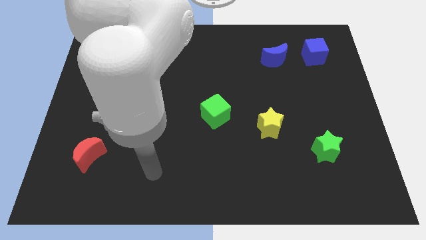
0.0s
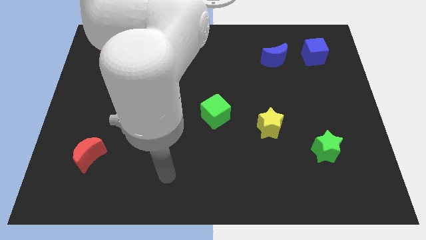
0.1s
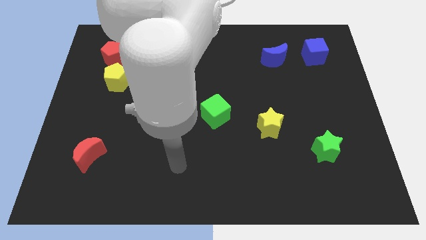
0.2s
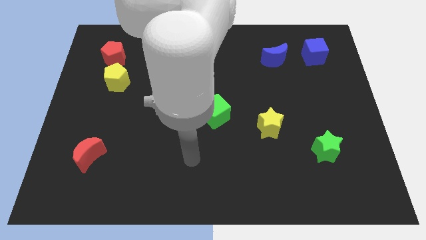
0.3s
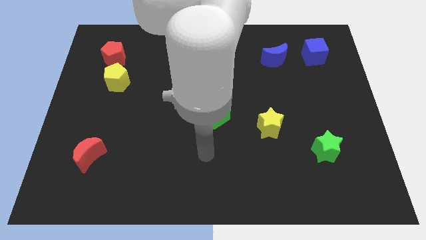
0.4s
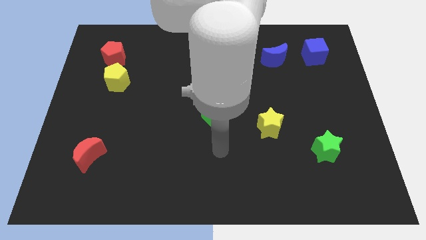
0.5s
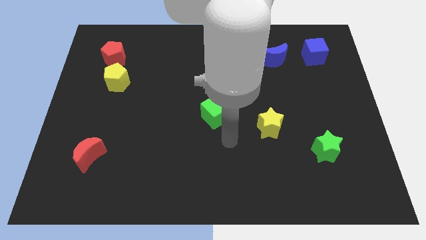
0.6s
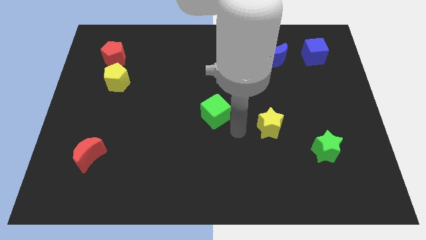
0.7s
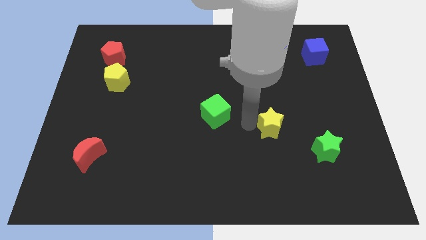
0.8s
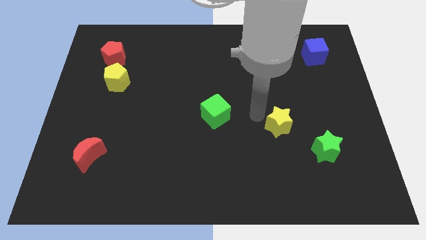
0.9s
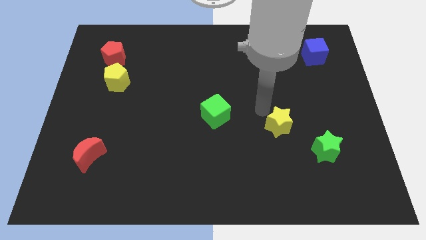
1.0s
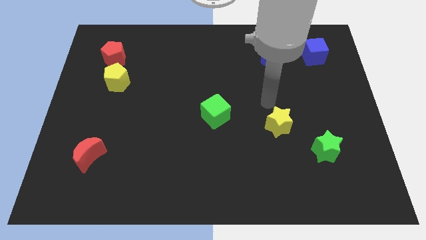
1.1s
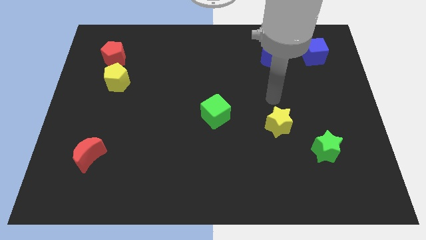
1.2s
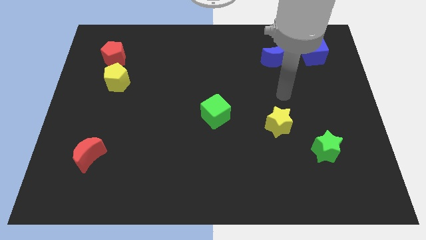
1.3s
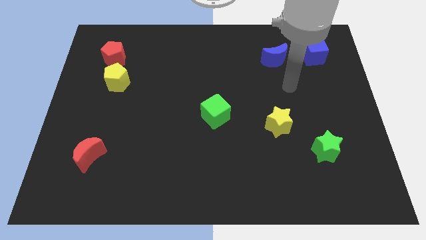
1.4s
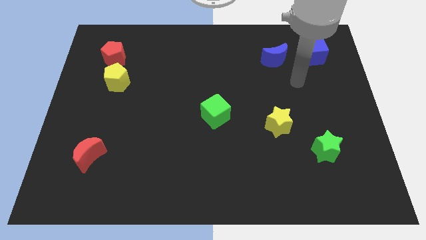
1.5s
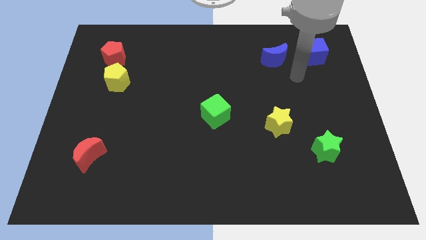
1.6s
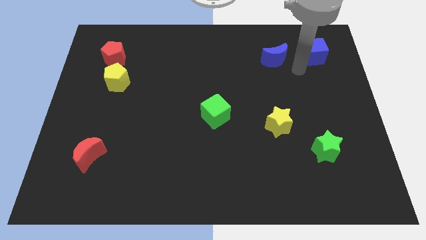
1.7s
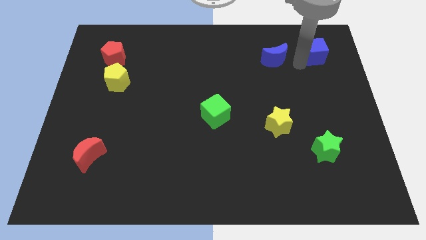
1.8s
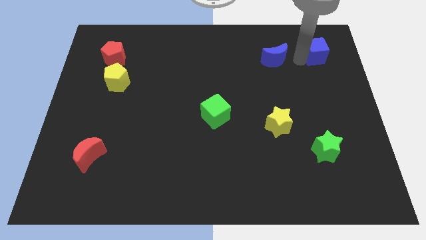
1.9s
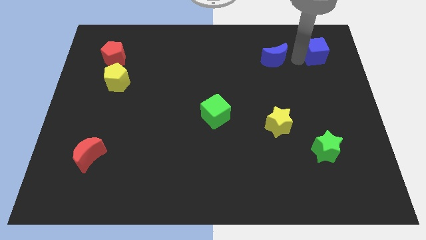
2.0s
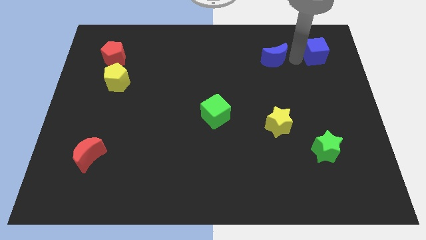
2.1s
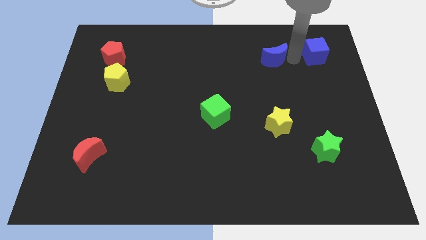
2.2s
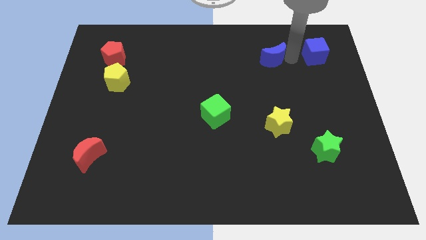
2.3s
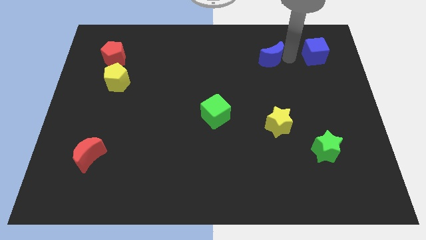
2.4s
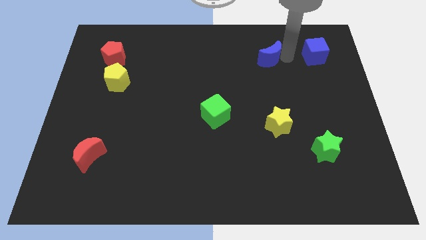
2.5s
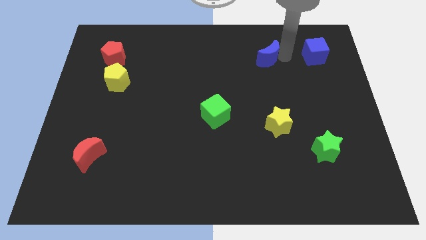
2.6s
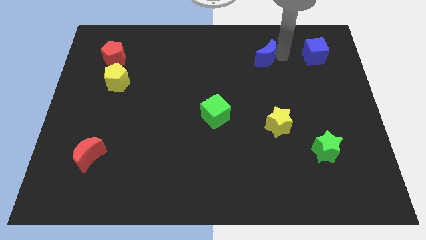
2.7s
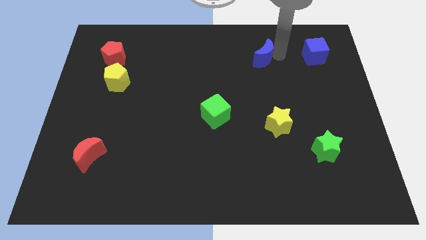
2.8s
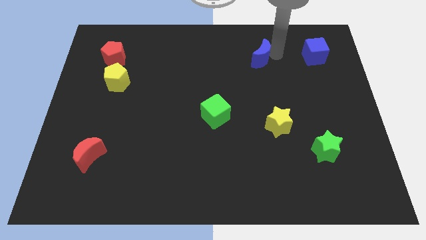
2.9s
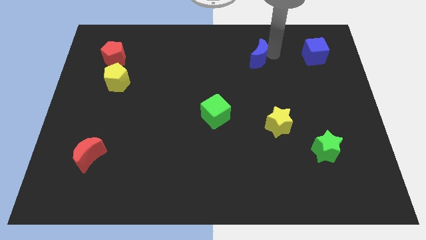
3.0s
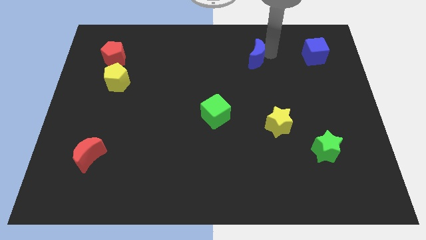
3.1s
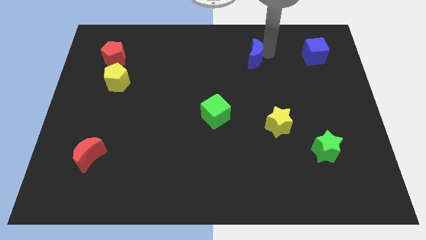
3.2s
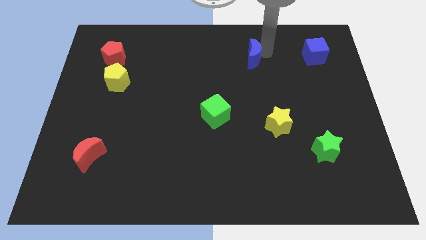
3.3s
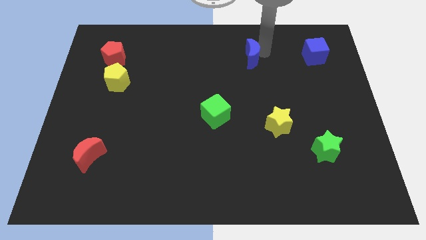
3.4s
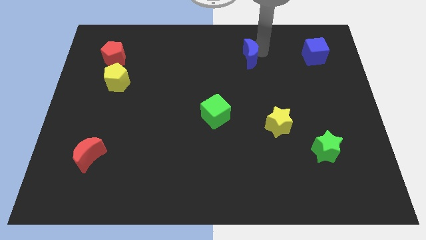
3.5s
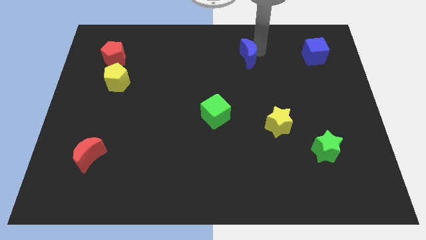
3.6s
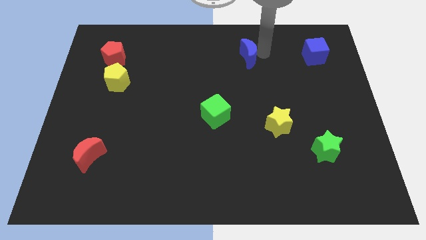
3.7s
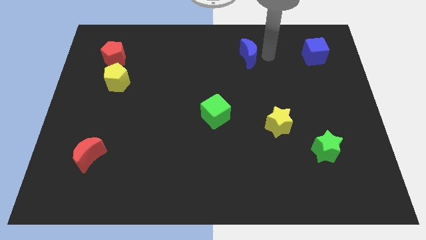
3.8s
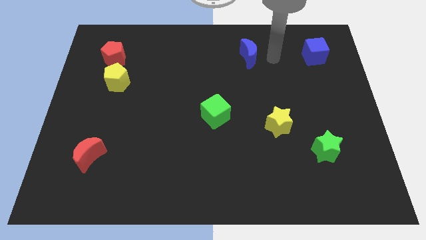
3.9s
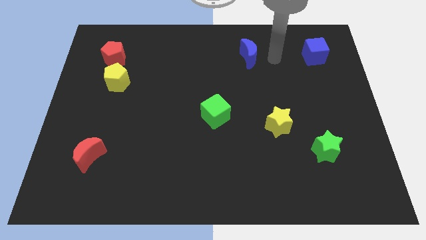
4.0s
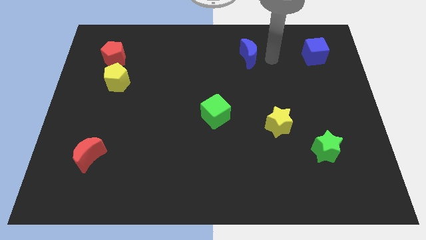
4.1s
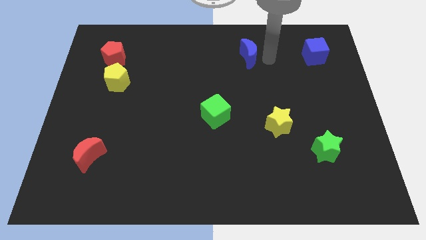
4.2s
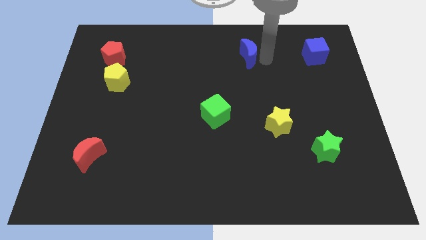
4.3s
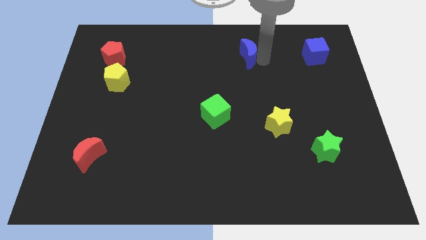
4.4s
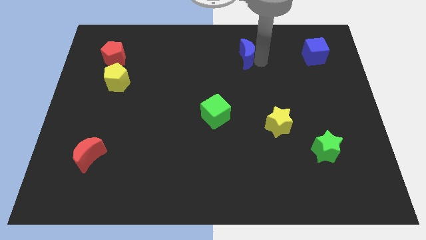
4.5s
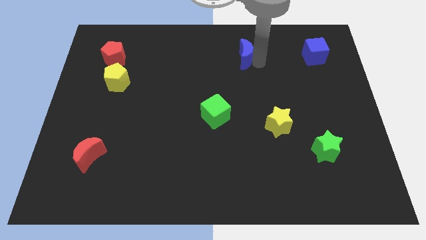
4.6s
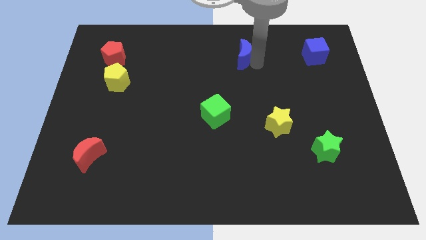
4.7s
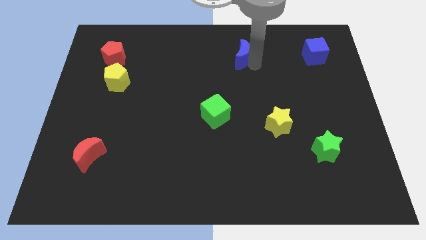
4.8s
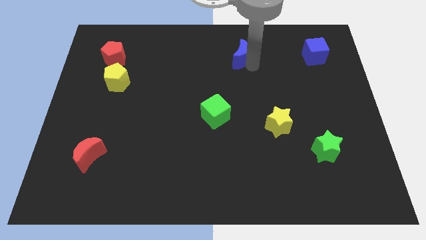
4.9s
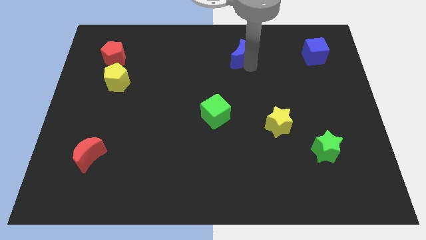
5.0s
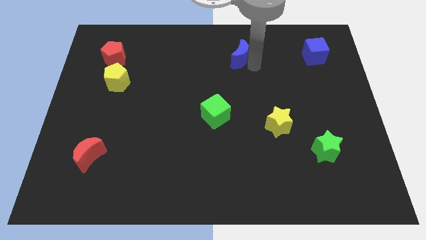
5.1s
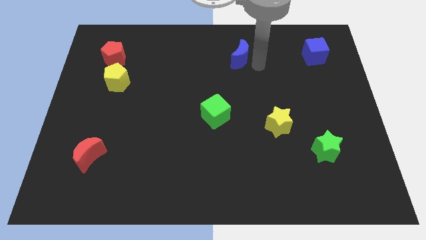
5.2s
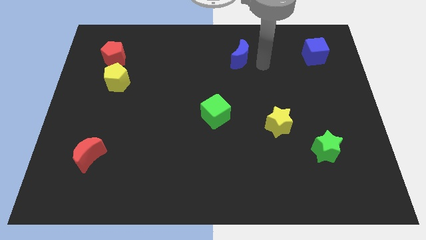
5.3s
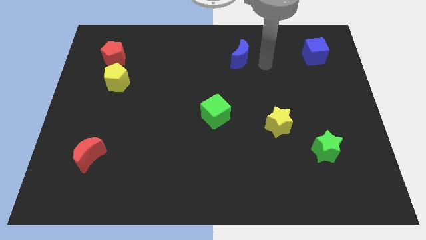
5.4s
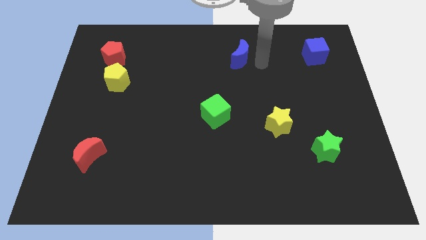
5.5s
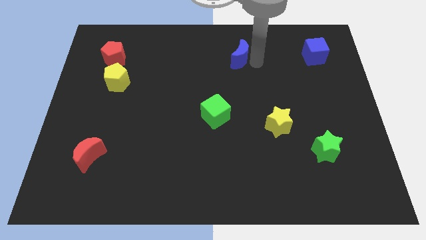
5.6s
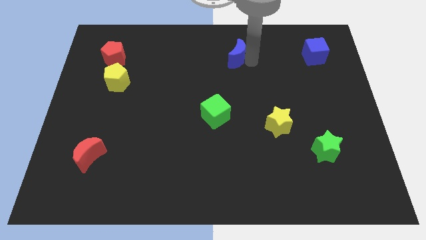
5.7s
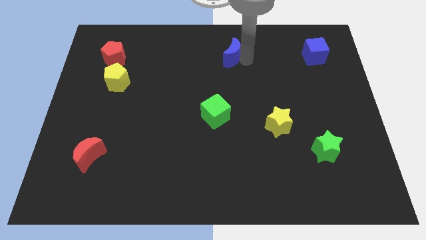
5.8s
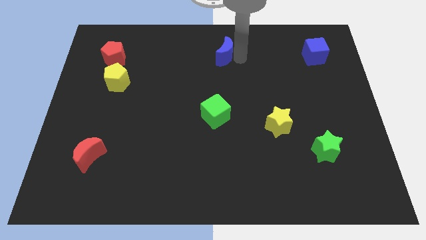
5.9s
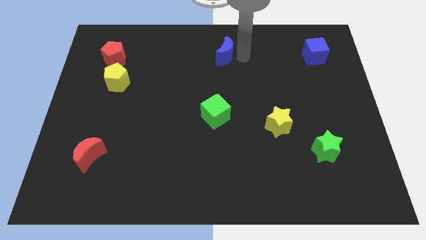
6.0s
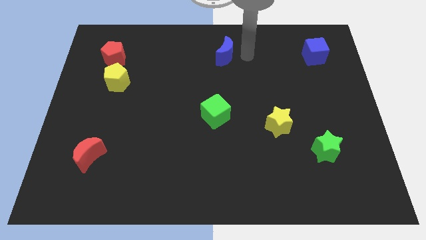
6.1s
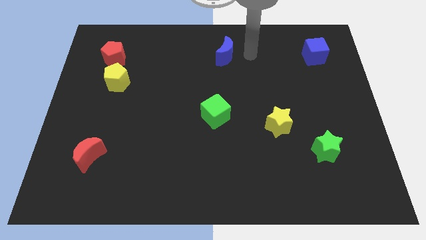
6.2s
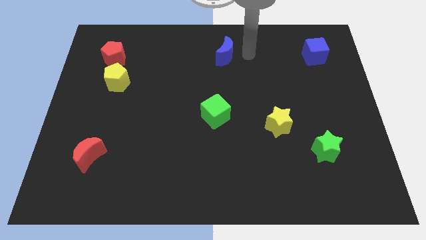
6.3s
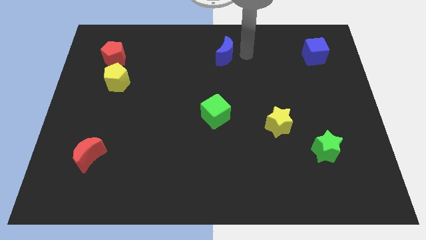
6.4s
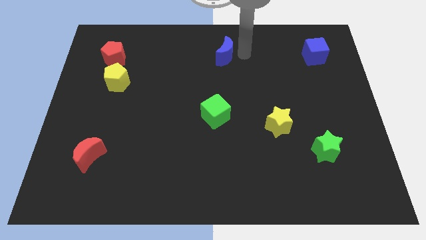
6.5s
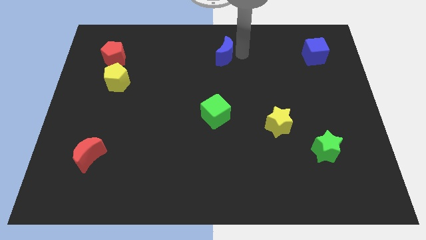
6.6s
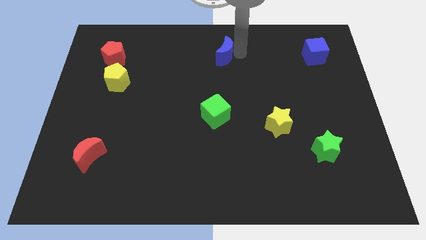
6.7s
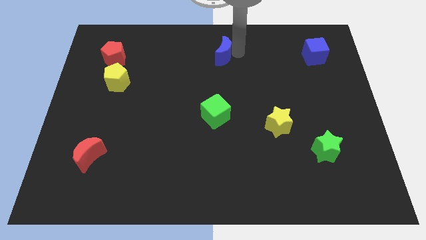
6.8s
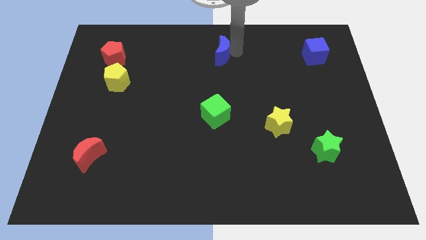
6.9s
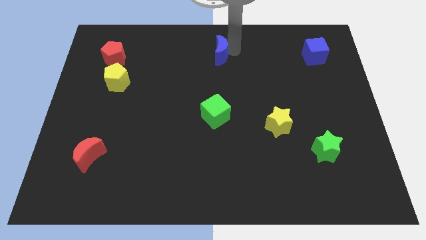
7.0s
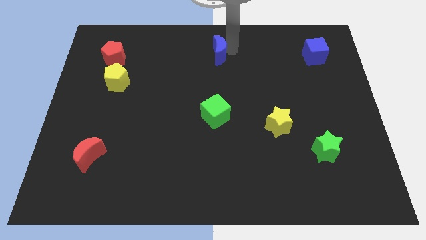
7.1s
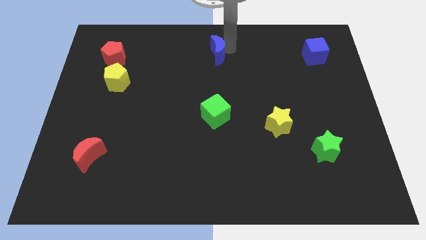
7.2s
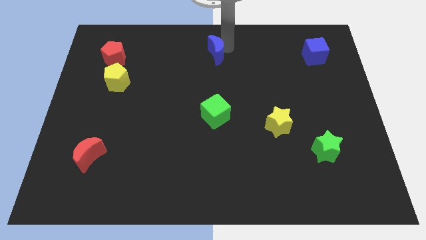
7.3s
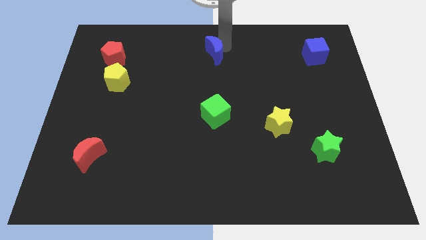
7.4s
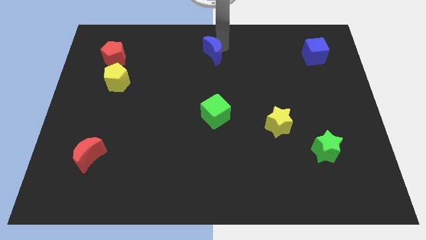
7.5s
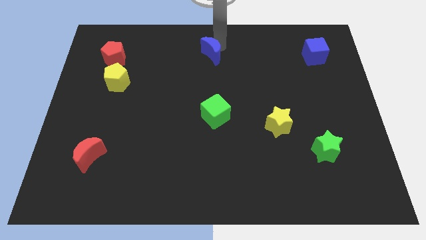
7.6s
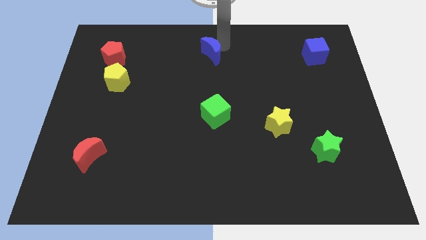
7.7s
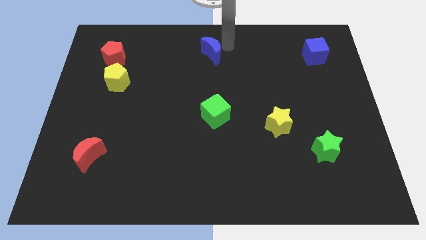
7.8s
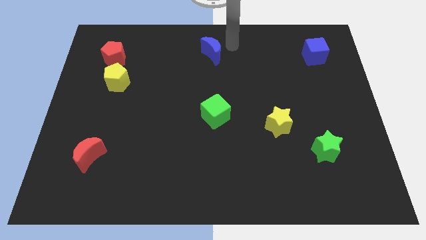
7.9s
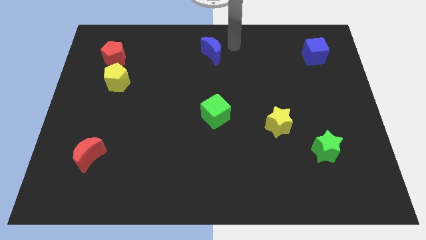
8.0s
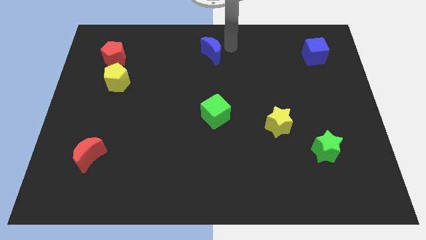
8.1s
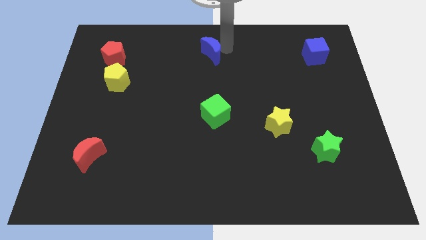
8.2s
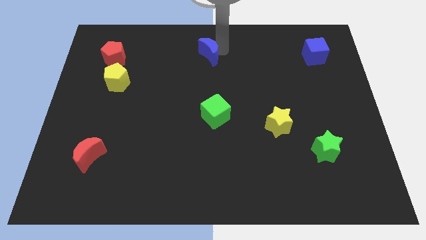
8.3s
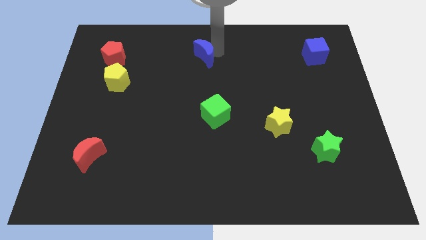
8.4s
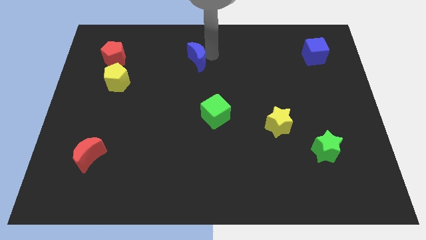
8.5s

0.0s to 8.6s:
move the blue moon left
